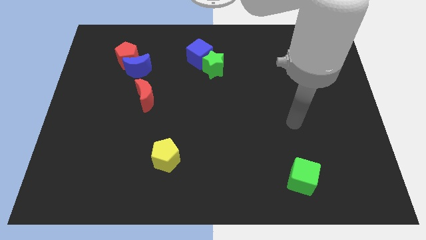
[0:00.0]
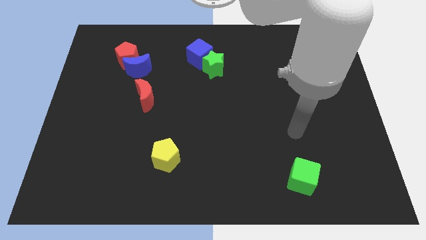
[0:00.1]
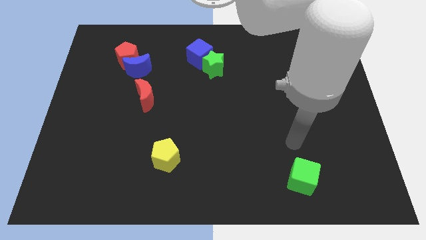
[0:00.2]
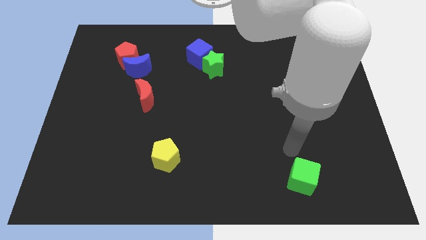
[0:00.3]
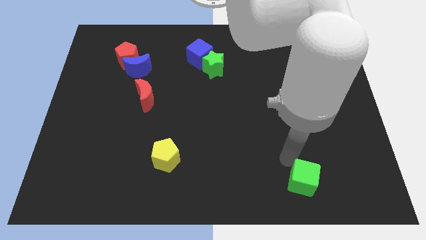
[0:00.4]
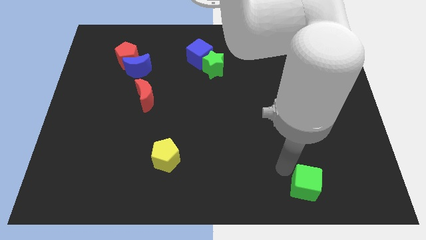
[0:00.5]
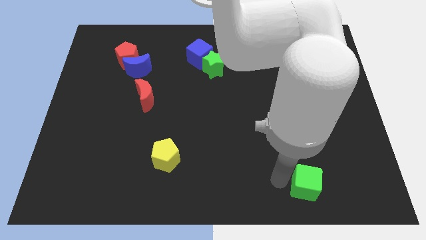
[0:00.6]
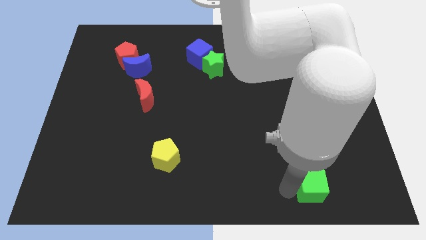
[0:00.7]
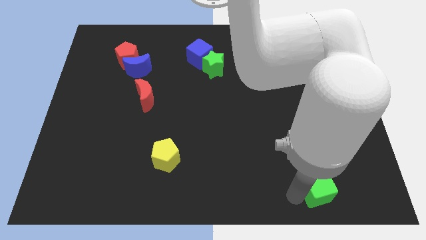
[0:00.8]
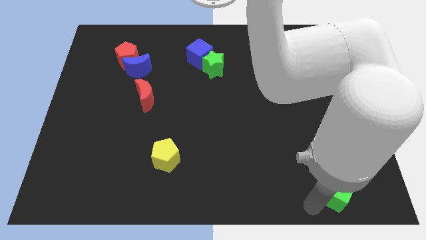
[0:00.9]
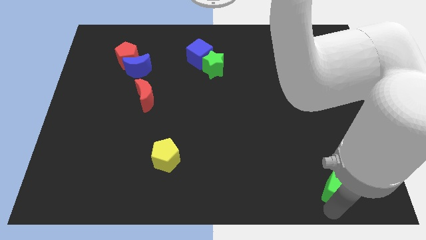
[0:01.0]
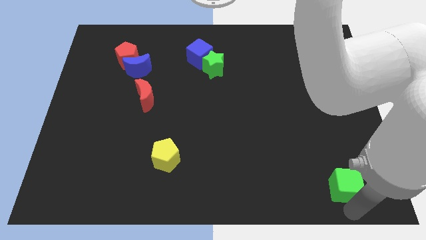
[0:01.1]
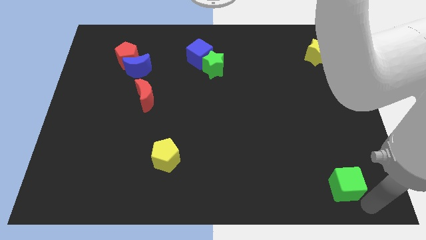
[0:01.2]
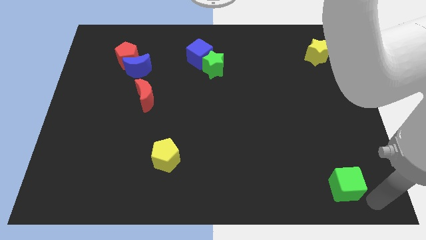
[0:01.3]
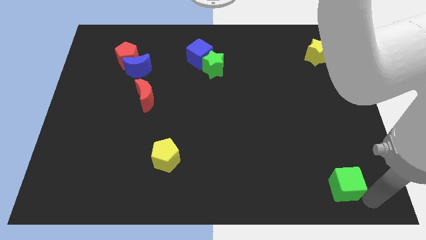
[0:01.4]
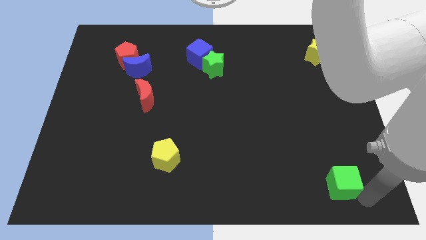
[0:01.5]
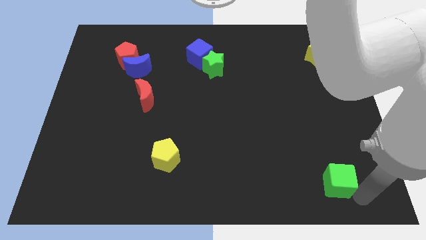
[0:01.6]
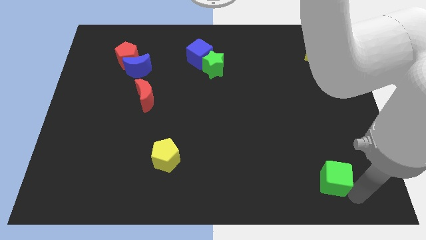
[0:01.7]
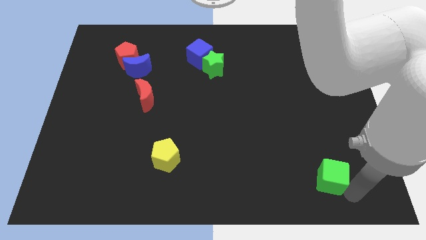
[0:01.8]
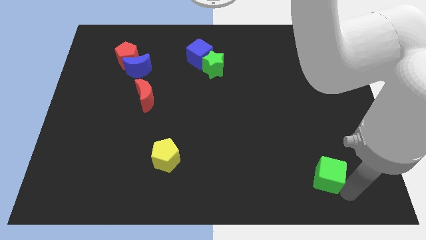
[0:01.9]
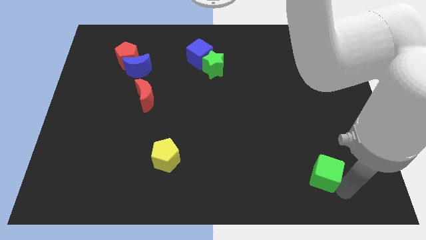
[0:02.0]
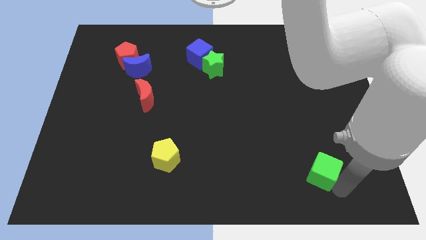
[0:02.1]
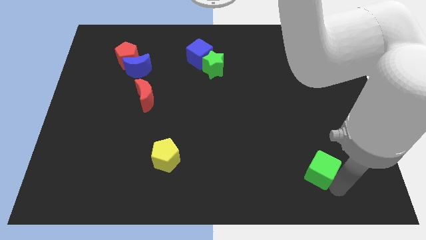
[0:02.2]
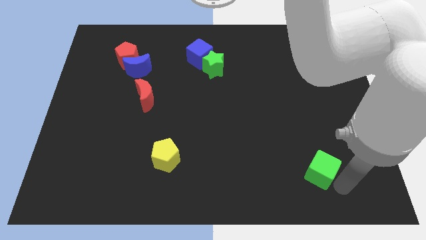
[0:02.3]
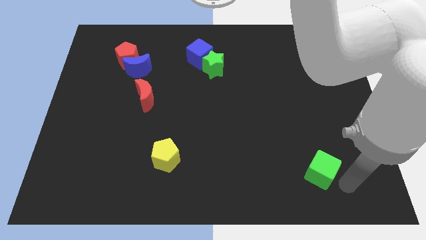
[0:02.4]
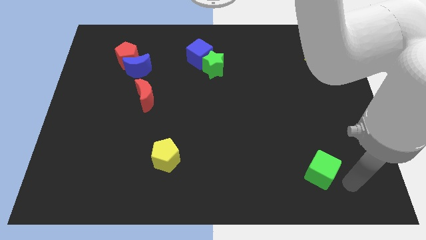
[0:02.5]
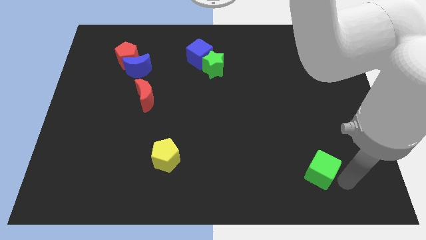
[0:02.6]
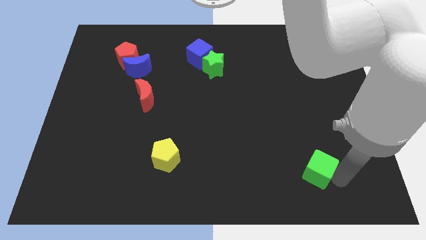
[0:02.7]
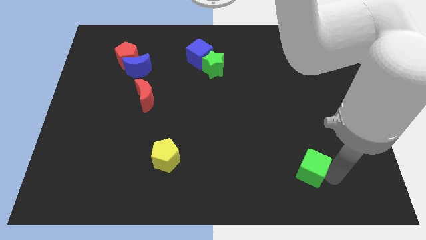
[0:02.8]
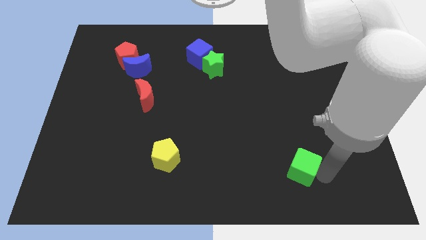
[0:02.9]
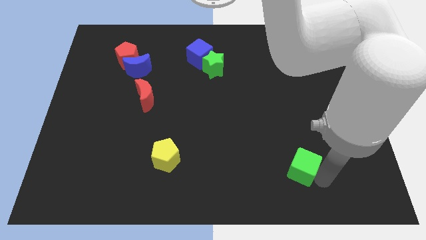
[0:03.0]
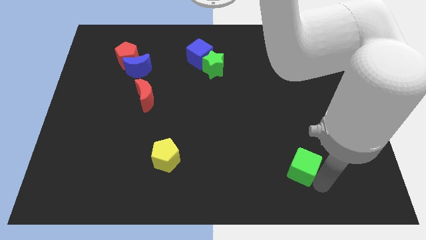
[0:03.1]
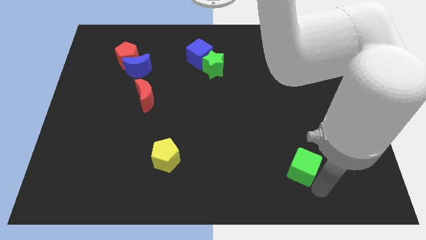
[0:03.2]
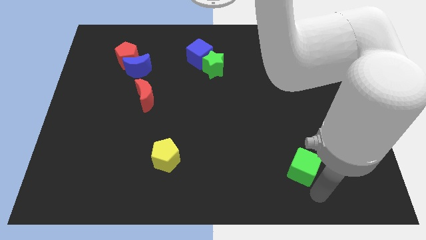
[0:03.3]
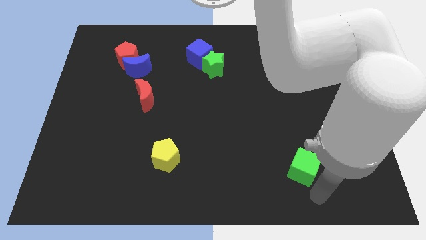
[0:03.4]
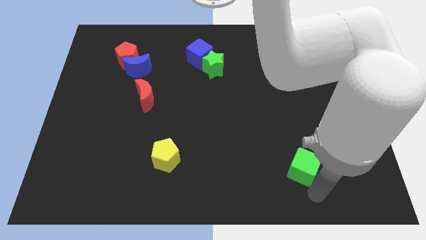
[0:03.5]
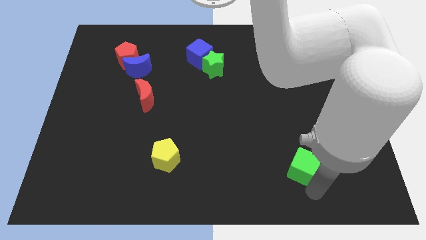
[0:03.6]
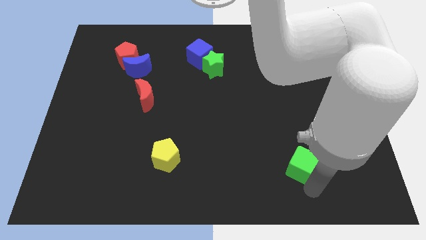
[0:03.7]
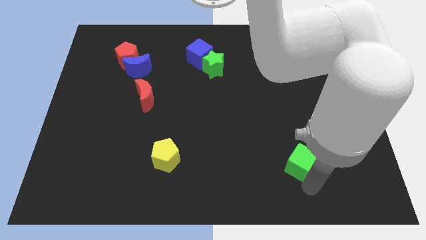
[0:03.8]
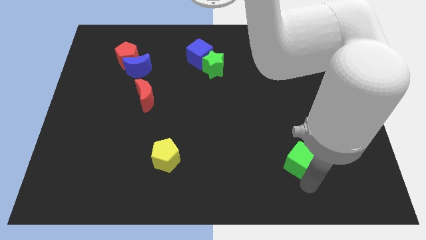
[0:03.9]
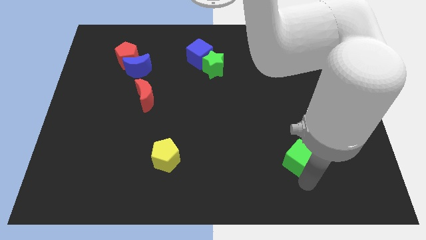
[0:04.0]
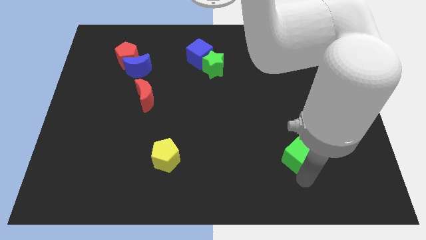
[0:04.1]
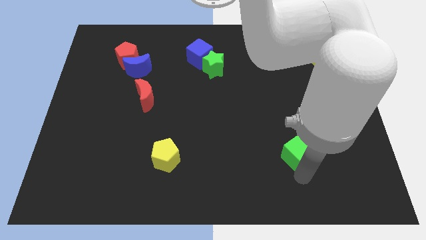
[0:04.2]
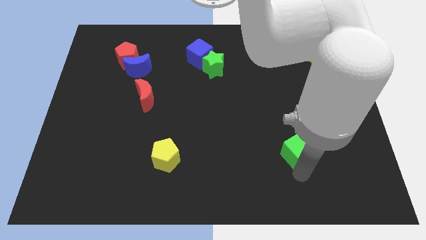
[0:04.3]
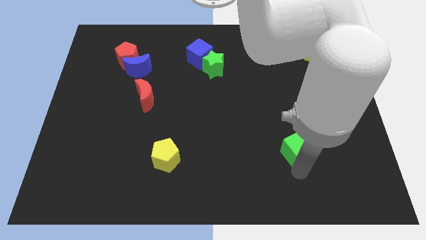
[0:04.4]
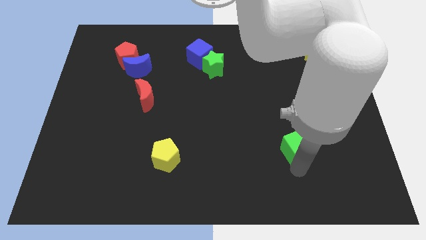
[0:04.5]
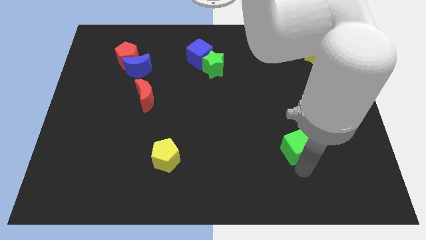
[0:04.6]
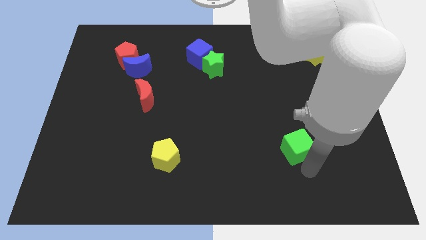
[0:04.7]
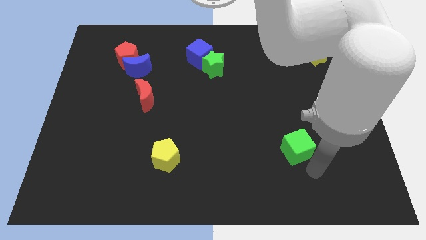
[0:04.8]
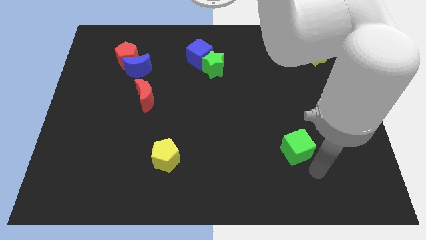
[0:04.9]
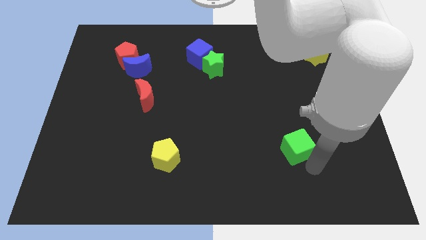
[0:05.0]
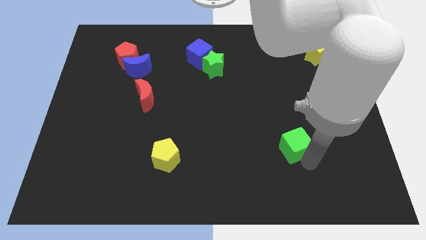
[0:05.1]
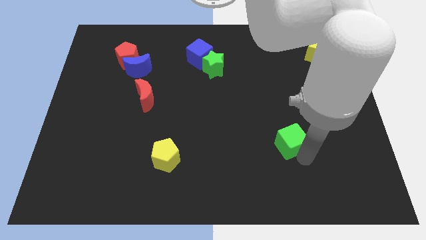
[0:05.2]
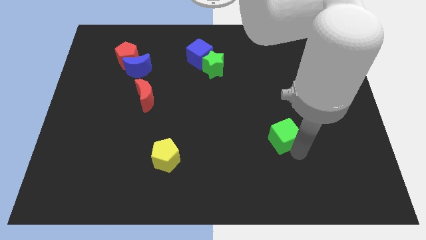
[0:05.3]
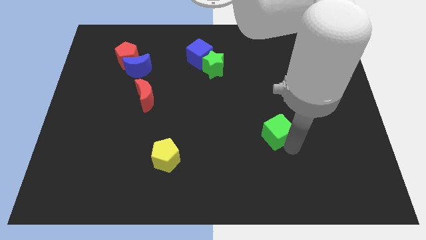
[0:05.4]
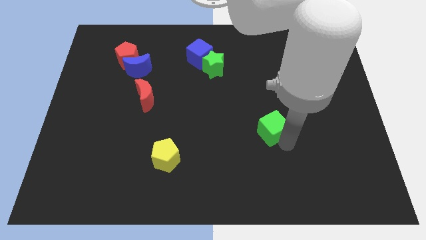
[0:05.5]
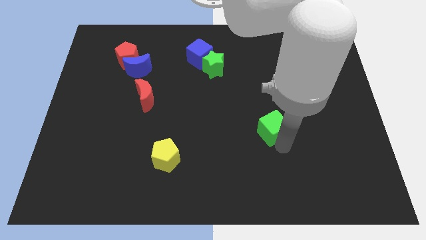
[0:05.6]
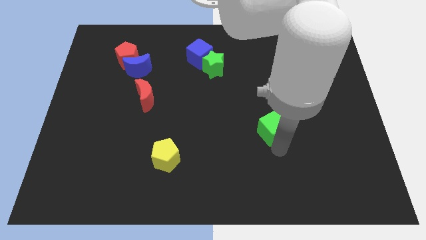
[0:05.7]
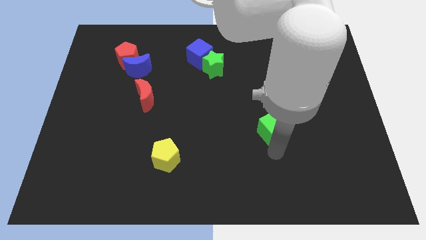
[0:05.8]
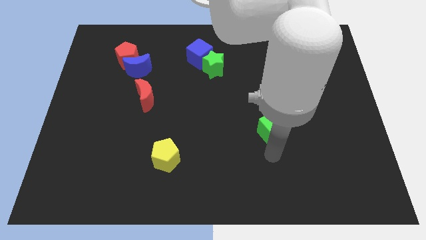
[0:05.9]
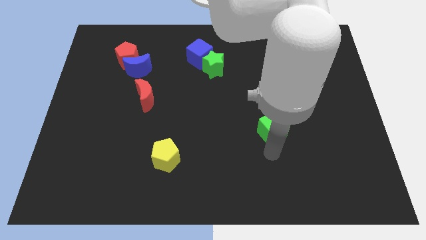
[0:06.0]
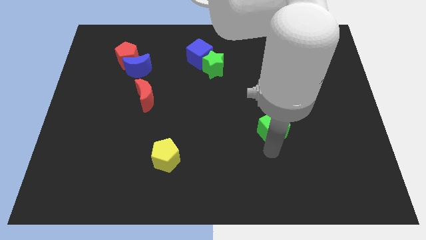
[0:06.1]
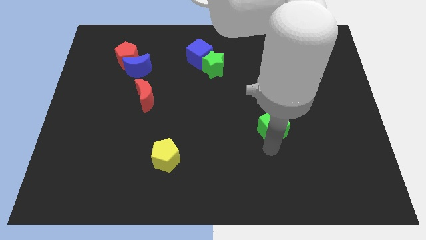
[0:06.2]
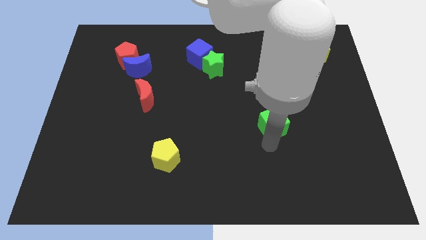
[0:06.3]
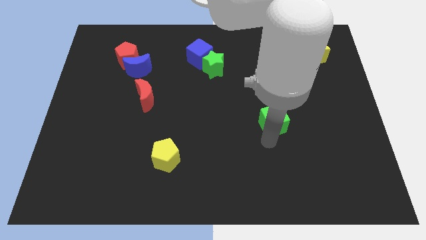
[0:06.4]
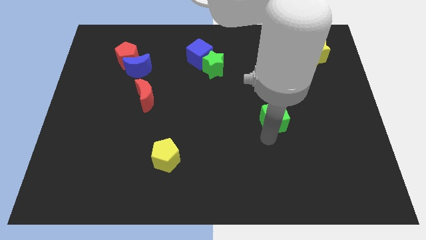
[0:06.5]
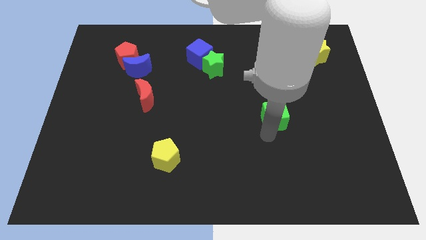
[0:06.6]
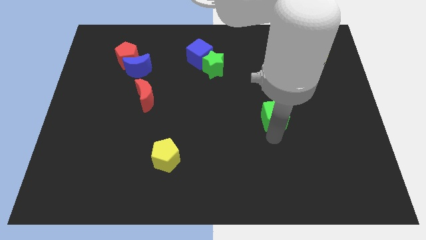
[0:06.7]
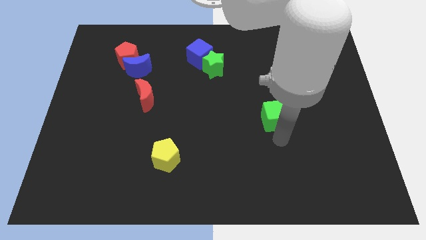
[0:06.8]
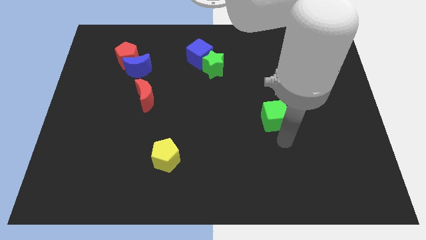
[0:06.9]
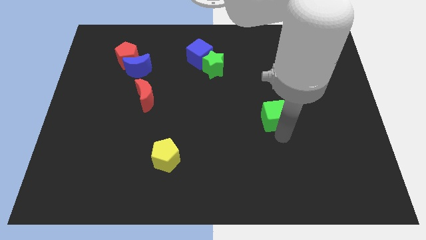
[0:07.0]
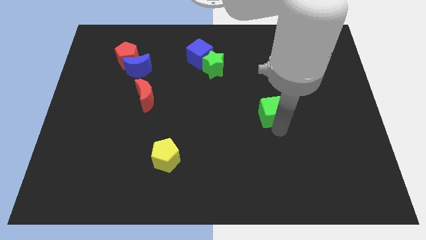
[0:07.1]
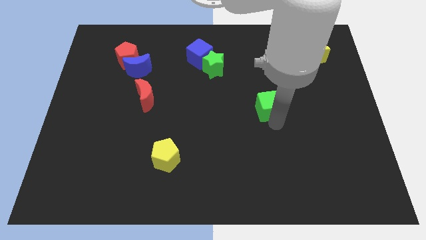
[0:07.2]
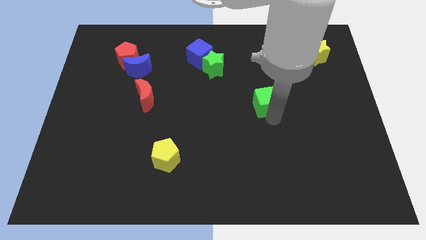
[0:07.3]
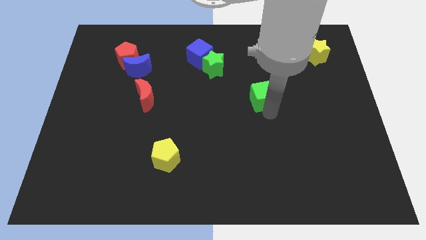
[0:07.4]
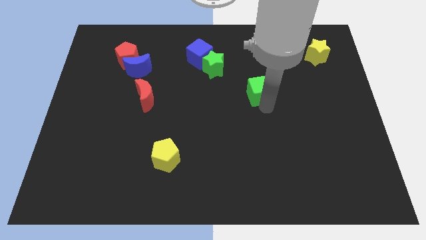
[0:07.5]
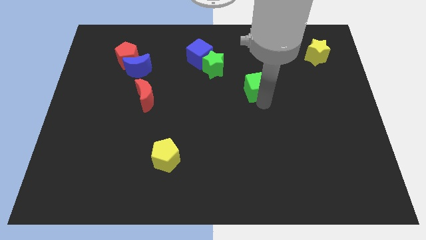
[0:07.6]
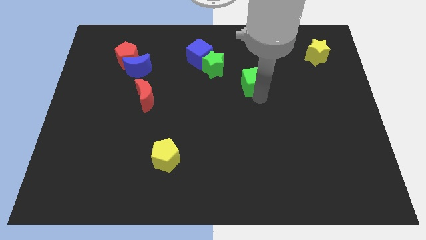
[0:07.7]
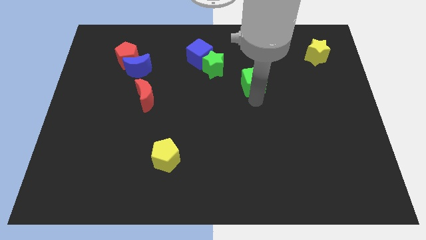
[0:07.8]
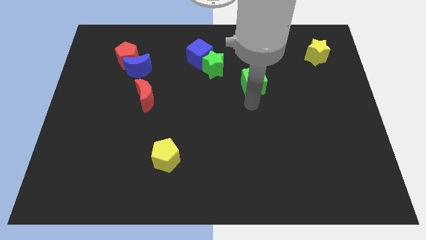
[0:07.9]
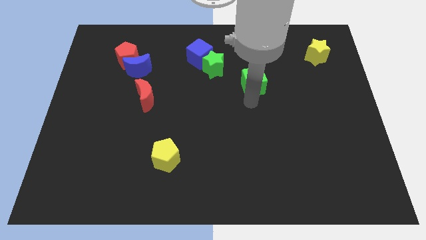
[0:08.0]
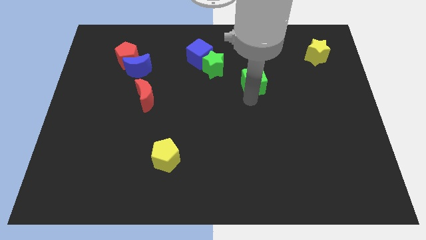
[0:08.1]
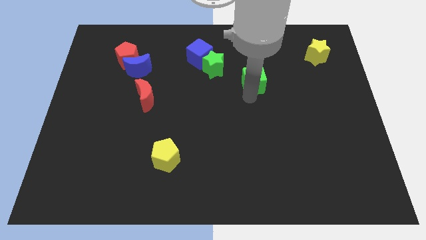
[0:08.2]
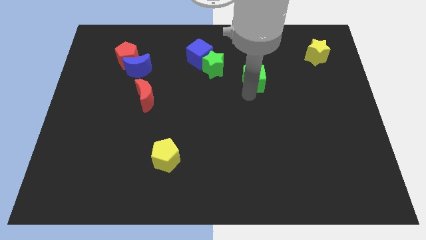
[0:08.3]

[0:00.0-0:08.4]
push the green cube just right of the green star
